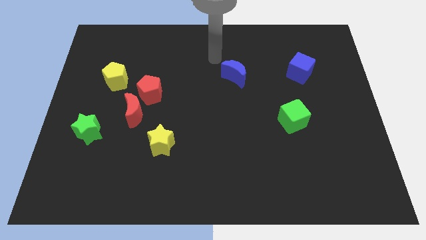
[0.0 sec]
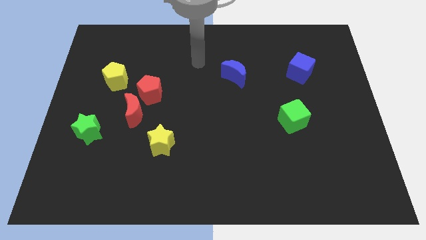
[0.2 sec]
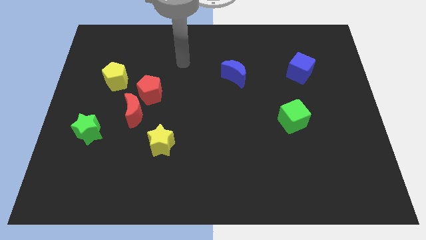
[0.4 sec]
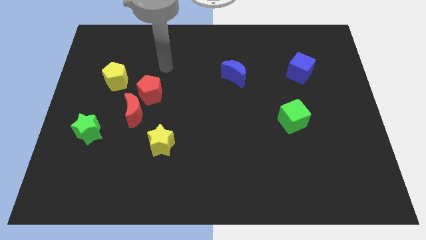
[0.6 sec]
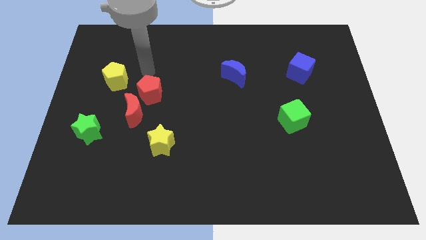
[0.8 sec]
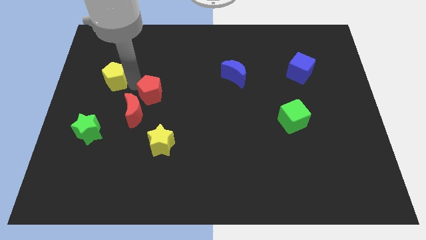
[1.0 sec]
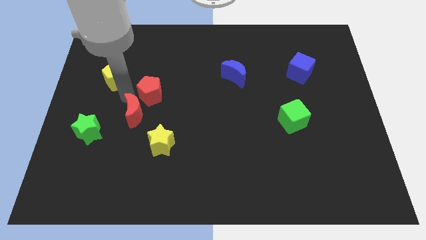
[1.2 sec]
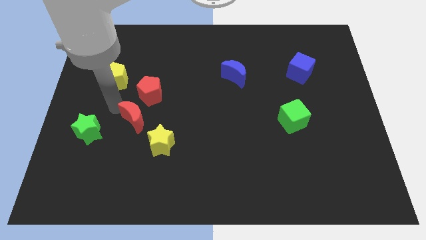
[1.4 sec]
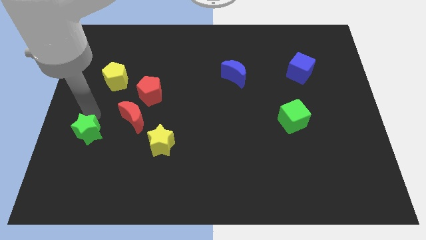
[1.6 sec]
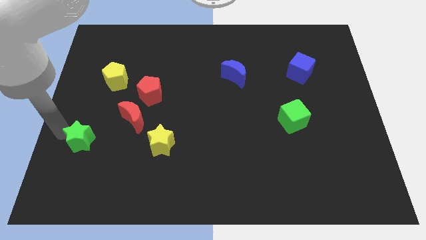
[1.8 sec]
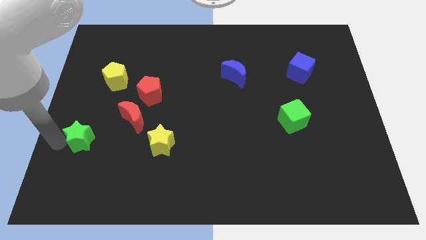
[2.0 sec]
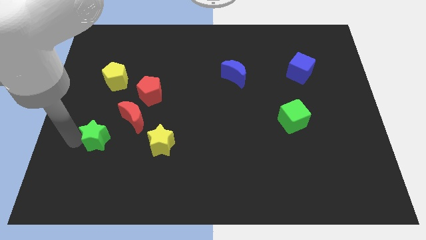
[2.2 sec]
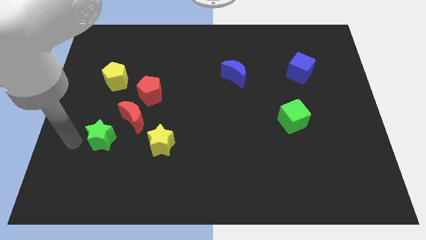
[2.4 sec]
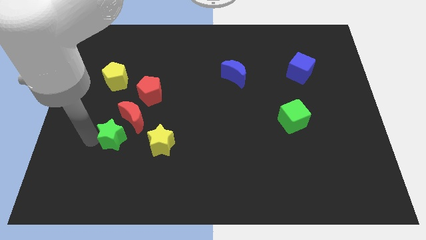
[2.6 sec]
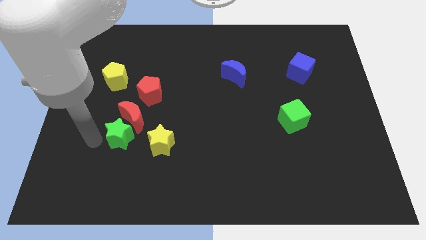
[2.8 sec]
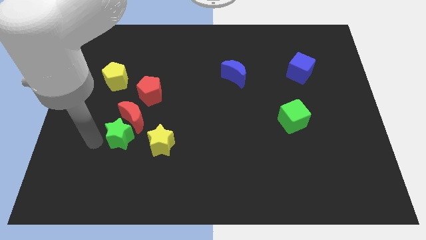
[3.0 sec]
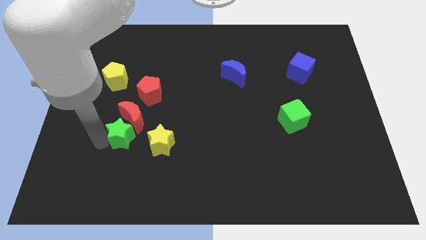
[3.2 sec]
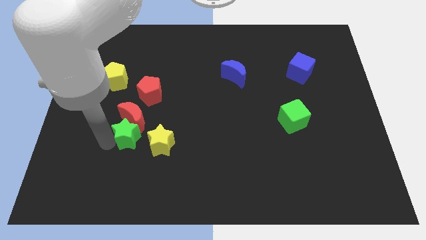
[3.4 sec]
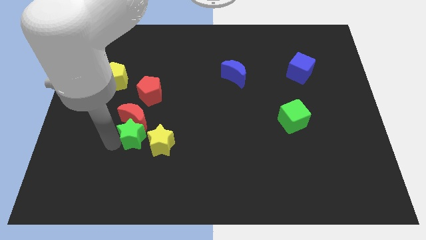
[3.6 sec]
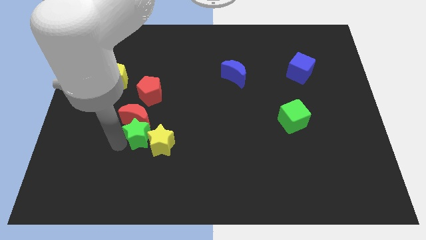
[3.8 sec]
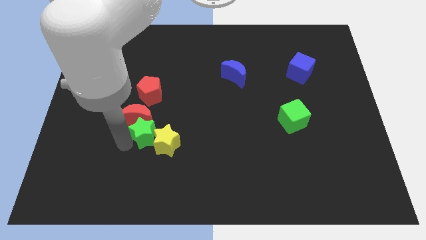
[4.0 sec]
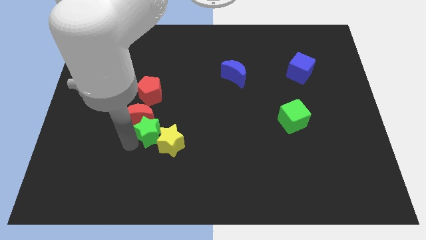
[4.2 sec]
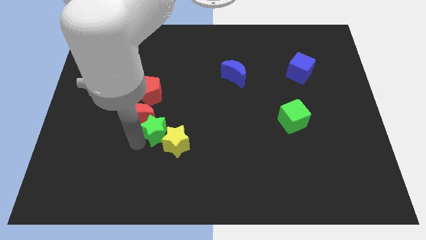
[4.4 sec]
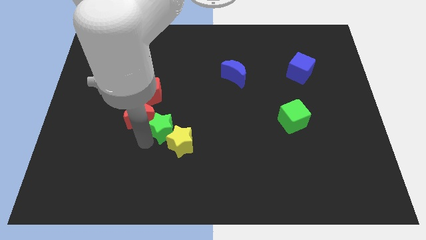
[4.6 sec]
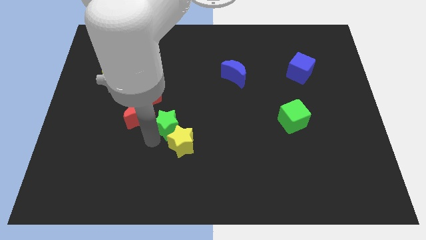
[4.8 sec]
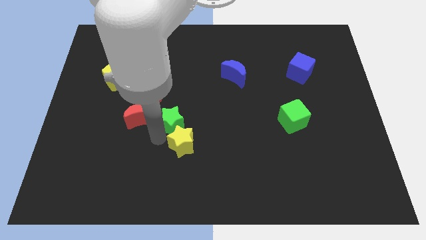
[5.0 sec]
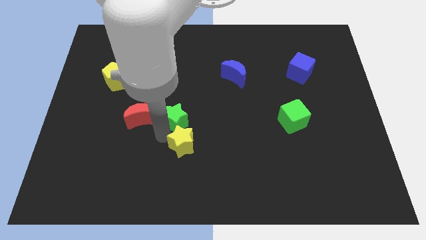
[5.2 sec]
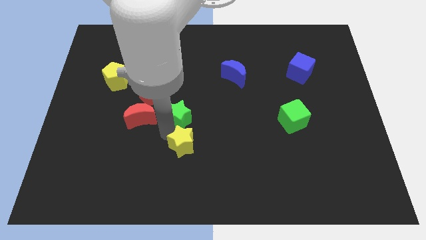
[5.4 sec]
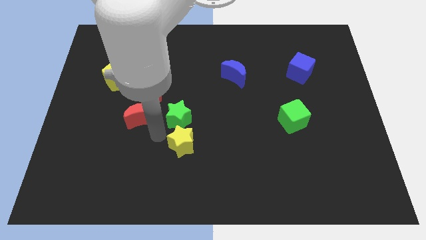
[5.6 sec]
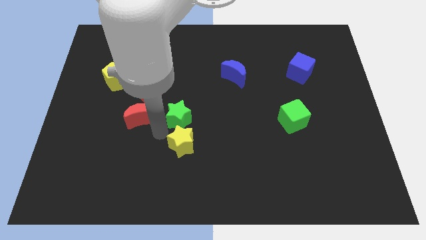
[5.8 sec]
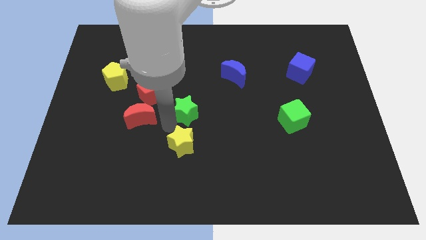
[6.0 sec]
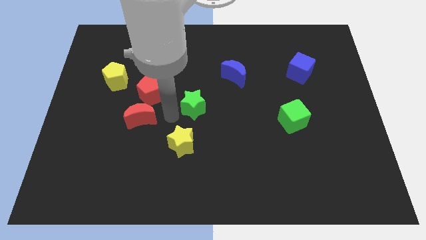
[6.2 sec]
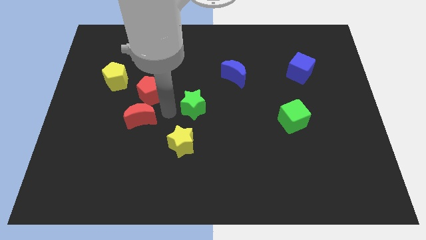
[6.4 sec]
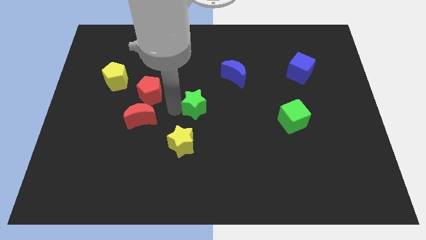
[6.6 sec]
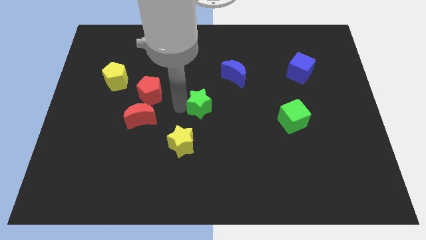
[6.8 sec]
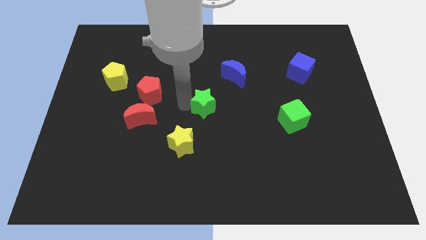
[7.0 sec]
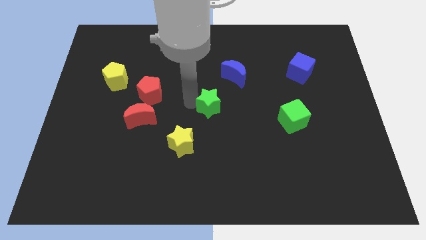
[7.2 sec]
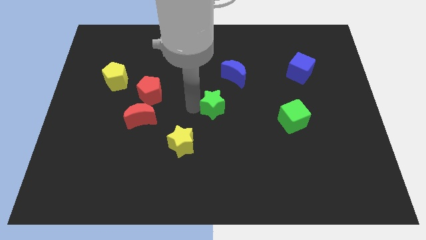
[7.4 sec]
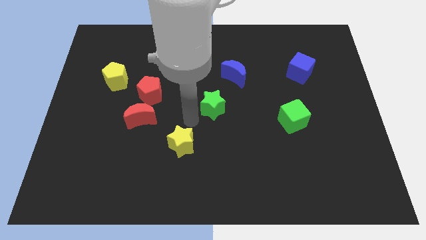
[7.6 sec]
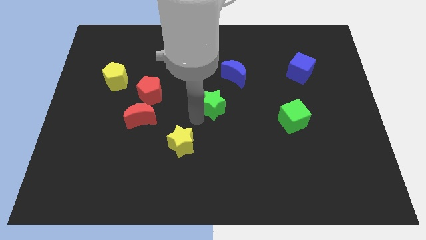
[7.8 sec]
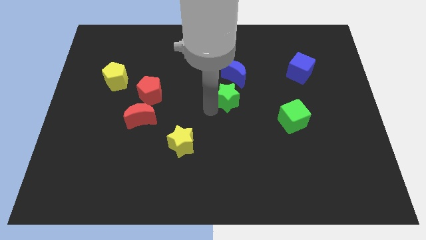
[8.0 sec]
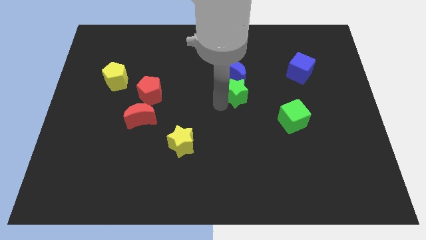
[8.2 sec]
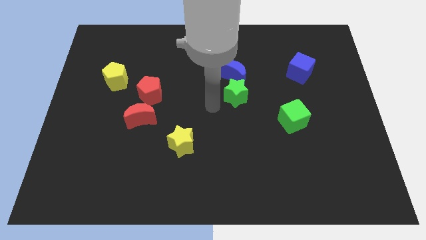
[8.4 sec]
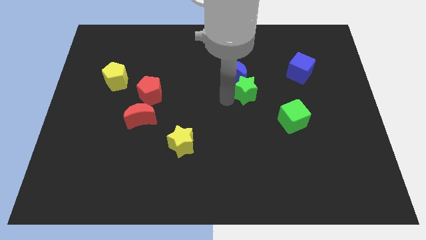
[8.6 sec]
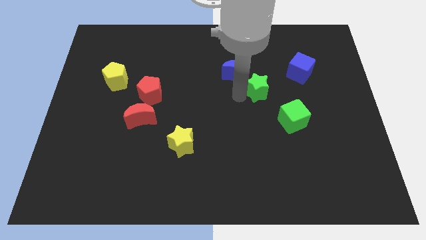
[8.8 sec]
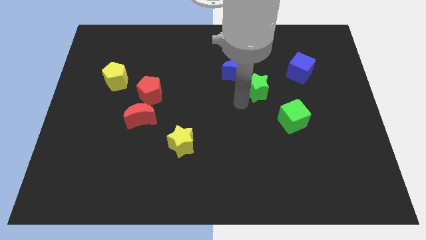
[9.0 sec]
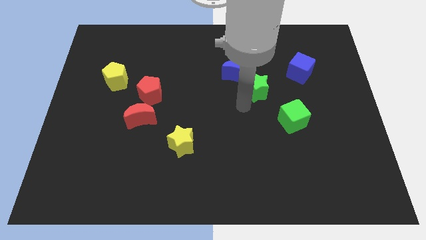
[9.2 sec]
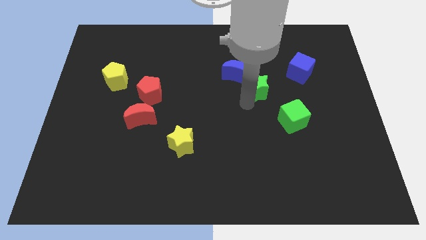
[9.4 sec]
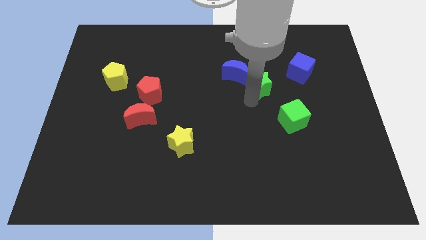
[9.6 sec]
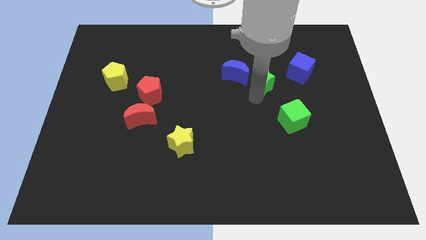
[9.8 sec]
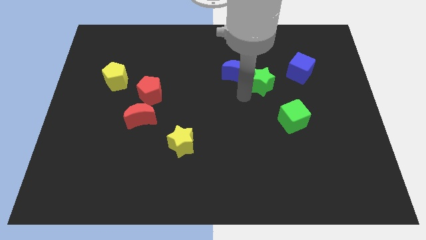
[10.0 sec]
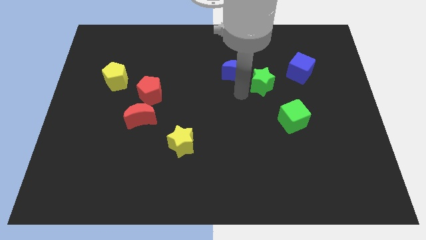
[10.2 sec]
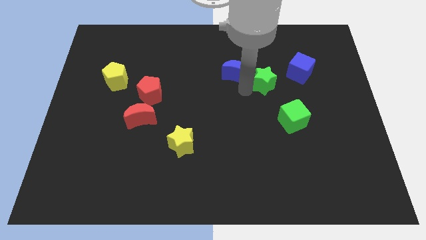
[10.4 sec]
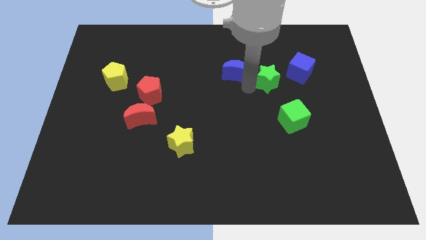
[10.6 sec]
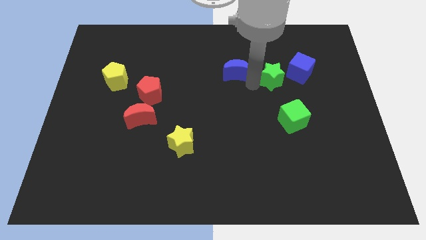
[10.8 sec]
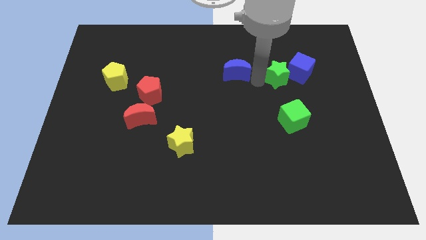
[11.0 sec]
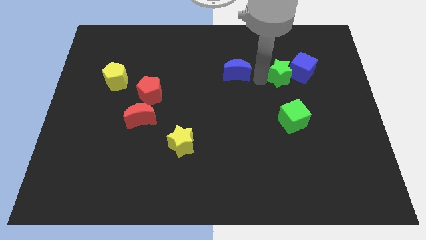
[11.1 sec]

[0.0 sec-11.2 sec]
move the green star next to the blue cube

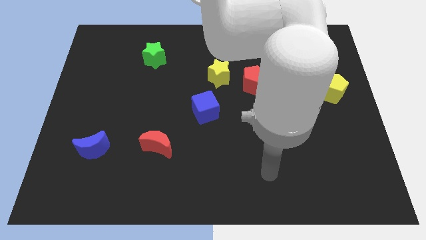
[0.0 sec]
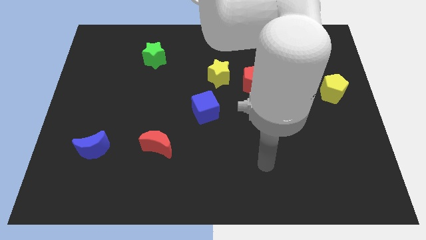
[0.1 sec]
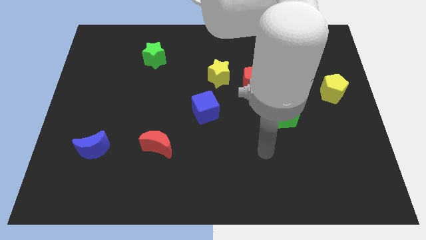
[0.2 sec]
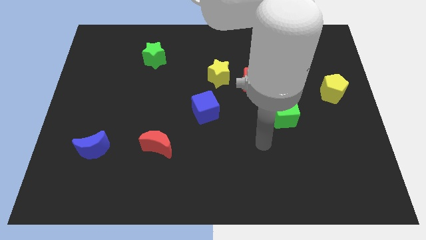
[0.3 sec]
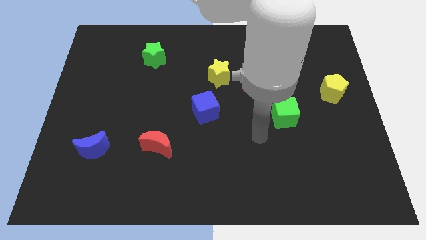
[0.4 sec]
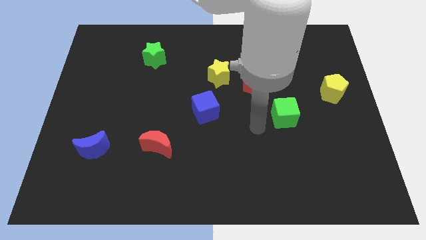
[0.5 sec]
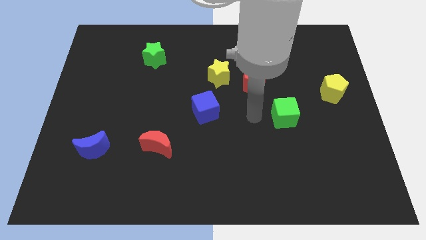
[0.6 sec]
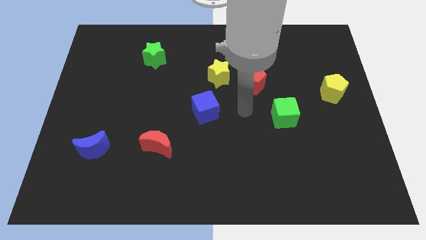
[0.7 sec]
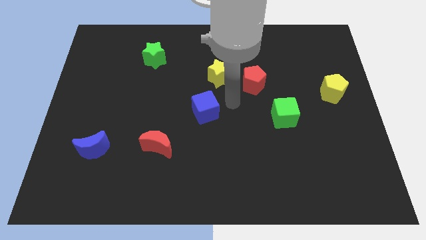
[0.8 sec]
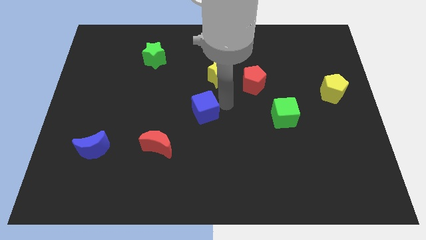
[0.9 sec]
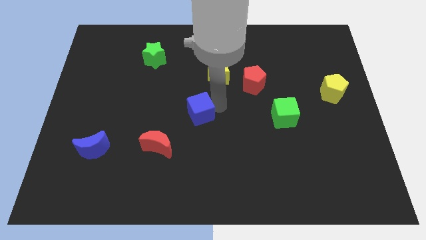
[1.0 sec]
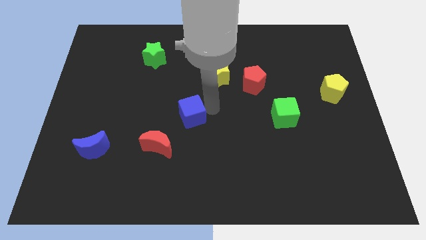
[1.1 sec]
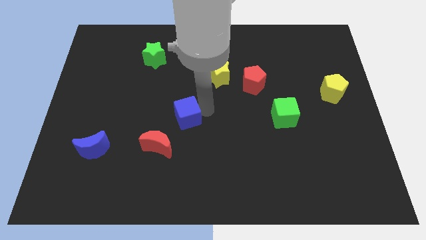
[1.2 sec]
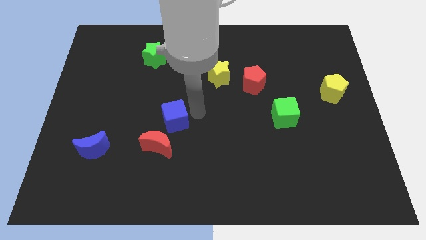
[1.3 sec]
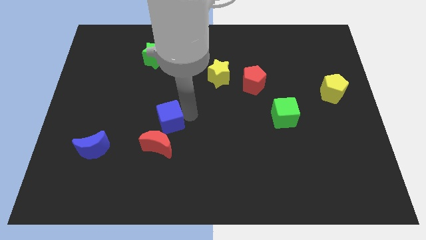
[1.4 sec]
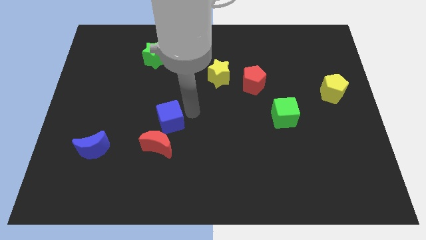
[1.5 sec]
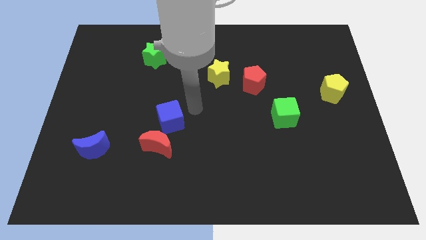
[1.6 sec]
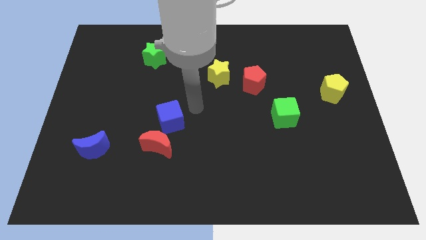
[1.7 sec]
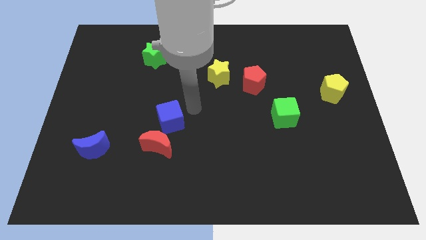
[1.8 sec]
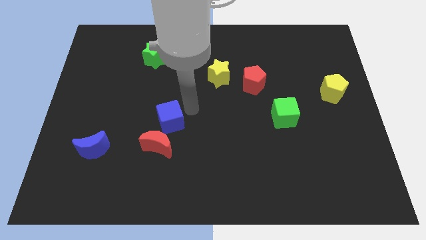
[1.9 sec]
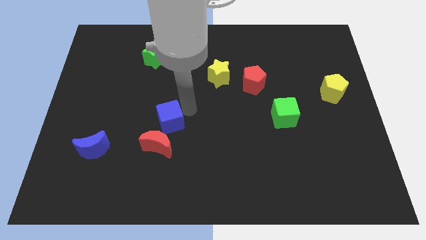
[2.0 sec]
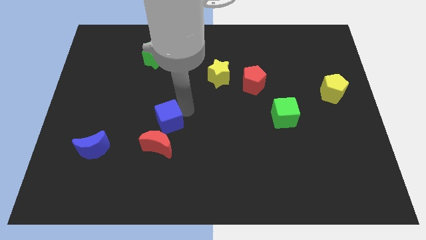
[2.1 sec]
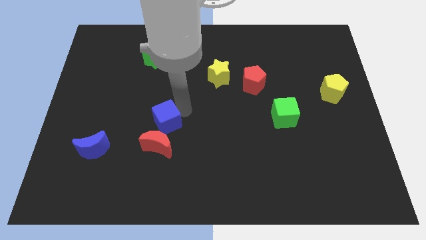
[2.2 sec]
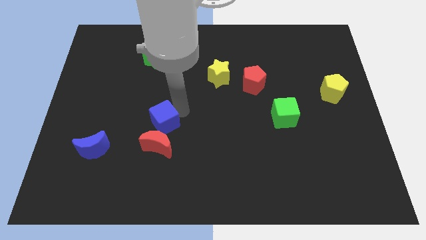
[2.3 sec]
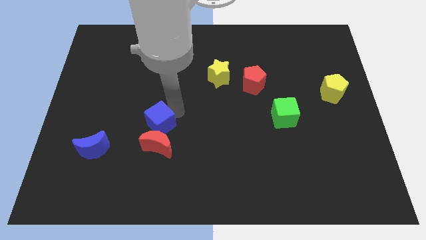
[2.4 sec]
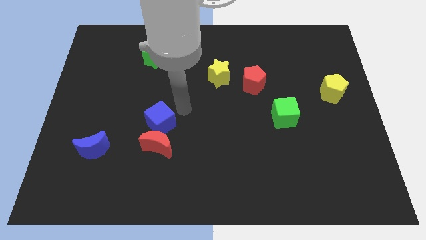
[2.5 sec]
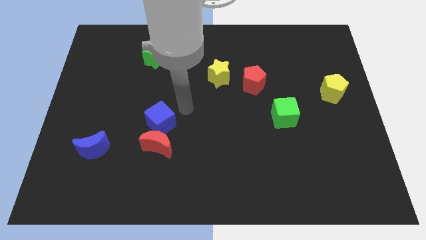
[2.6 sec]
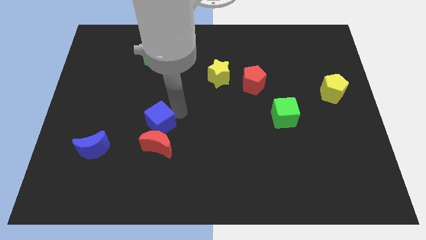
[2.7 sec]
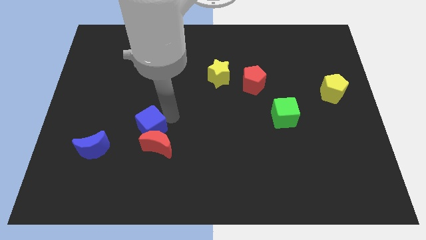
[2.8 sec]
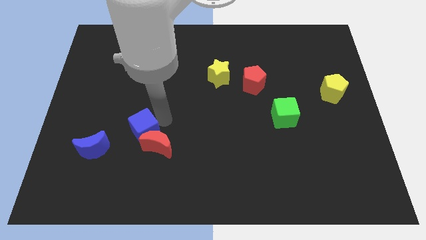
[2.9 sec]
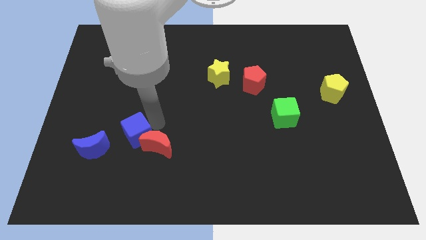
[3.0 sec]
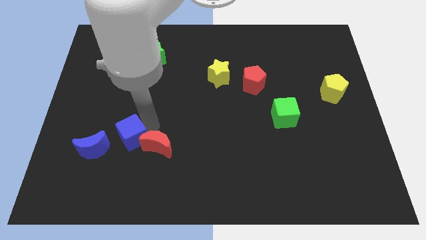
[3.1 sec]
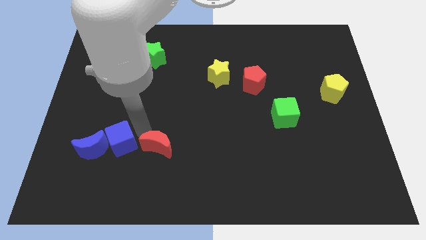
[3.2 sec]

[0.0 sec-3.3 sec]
slide the blue cube close to the blue moon
